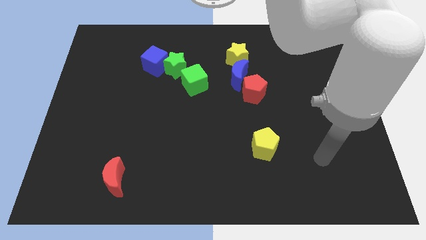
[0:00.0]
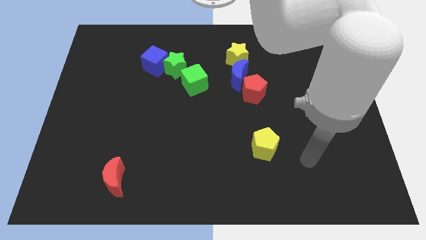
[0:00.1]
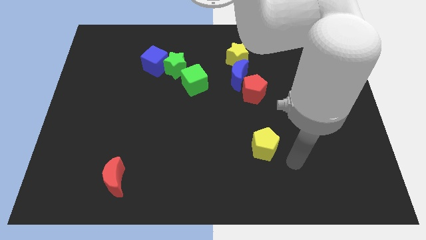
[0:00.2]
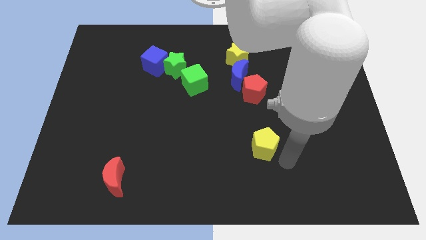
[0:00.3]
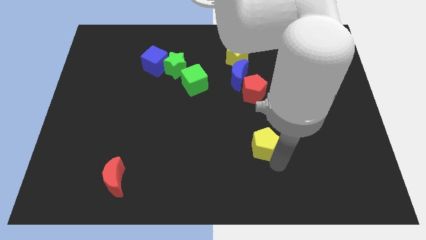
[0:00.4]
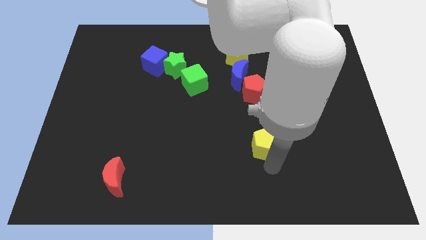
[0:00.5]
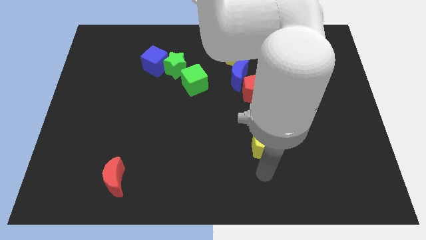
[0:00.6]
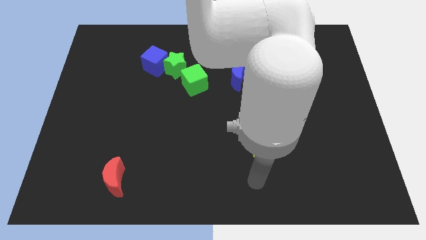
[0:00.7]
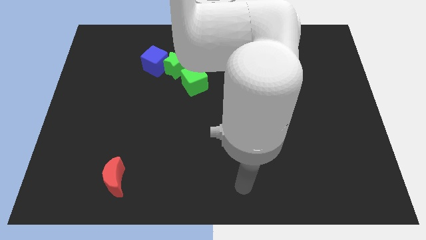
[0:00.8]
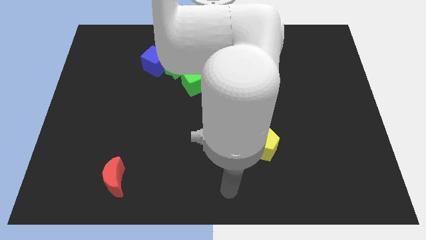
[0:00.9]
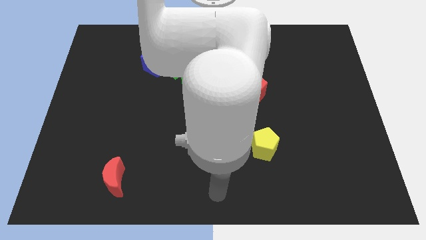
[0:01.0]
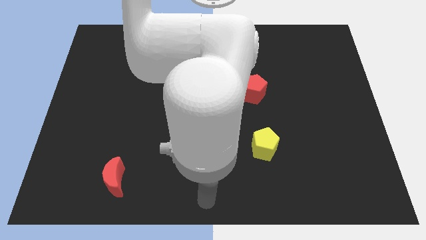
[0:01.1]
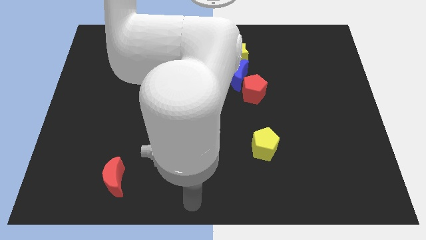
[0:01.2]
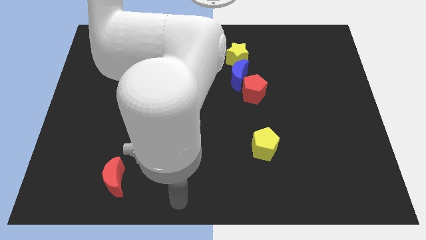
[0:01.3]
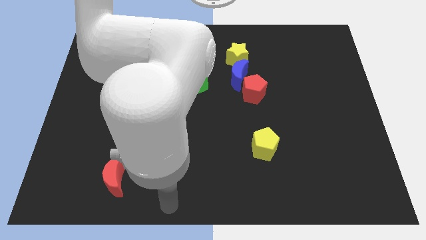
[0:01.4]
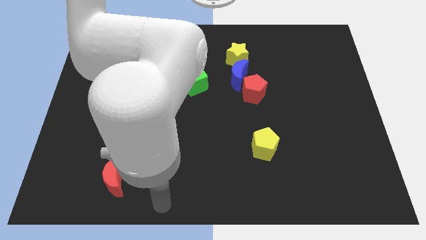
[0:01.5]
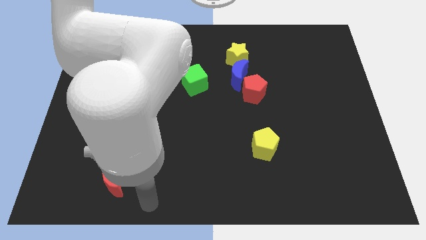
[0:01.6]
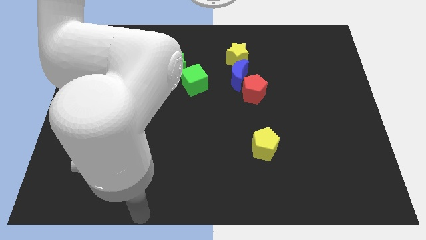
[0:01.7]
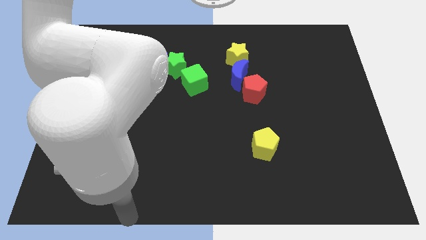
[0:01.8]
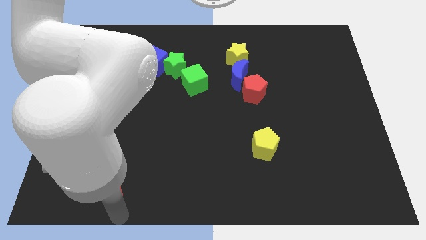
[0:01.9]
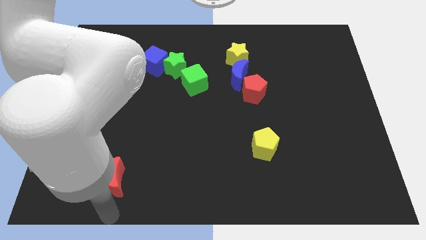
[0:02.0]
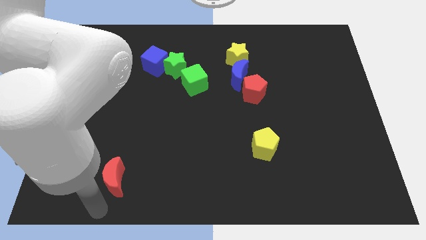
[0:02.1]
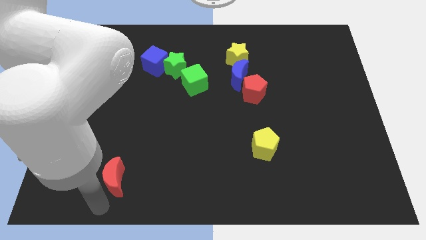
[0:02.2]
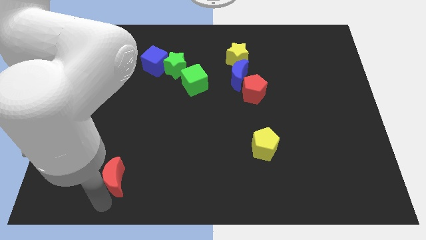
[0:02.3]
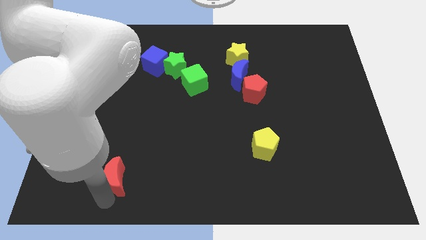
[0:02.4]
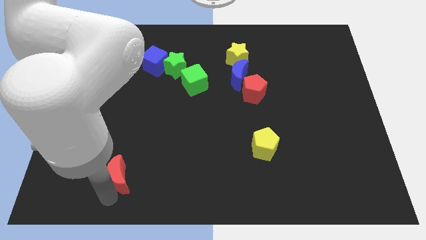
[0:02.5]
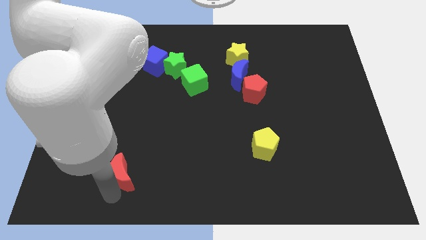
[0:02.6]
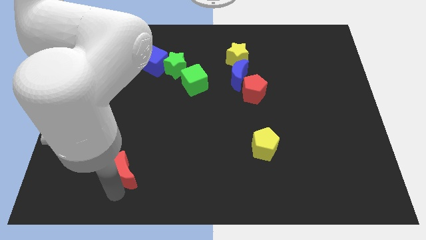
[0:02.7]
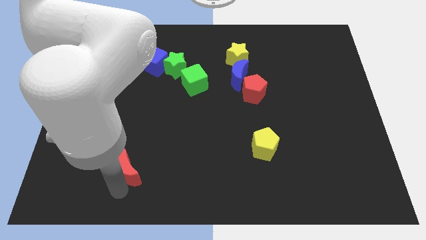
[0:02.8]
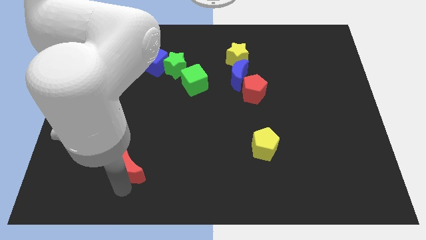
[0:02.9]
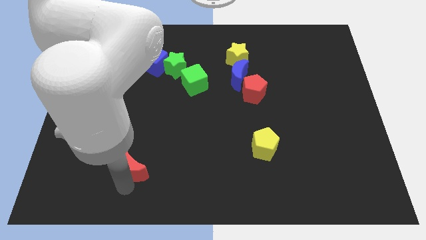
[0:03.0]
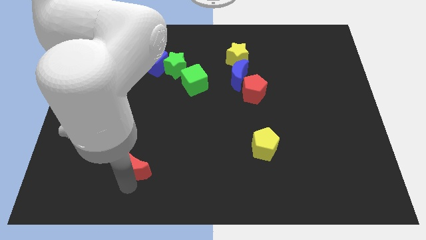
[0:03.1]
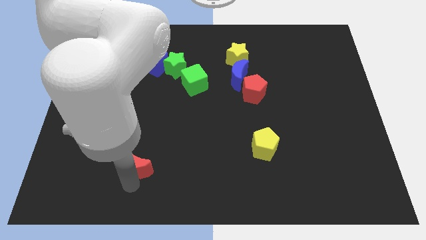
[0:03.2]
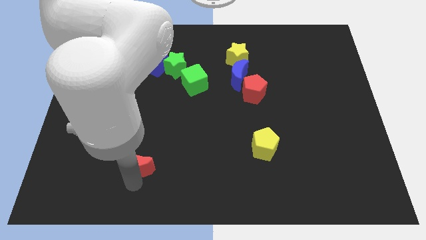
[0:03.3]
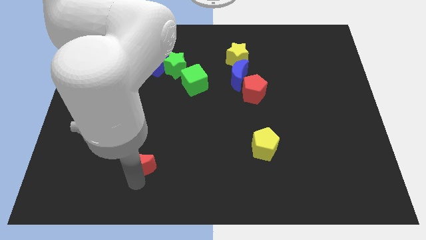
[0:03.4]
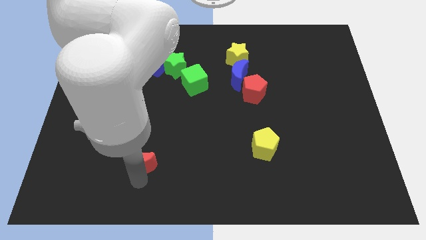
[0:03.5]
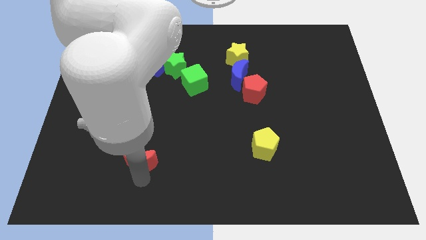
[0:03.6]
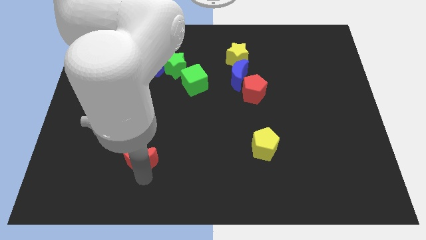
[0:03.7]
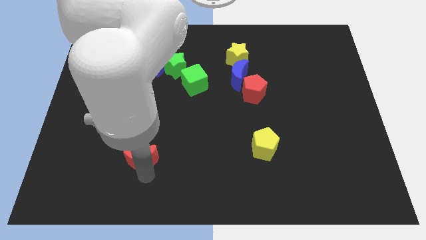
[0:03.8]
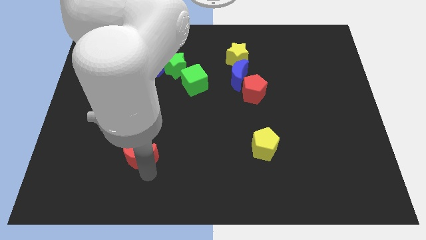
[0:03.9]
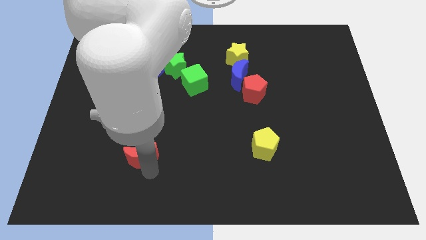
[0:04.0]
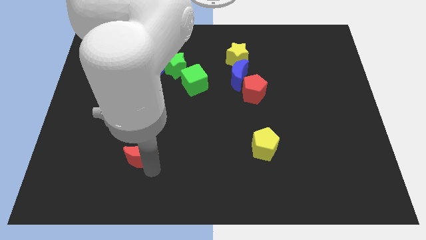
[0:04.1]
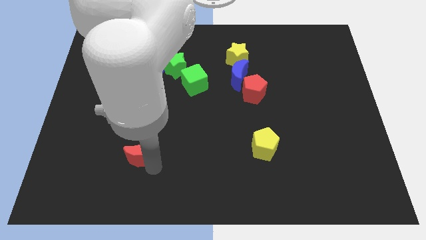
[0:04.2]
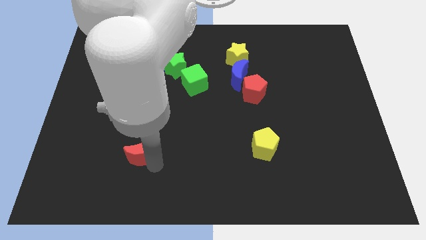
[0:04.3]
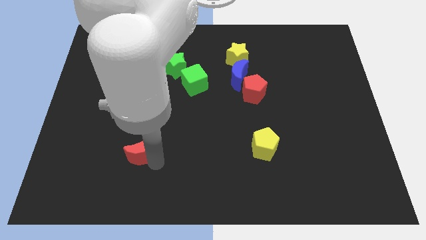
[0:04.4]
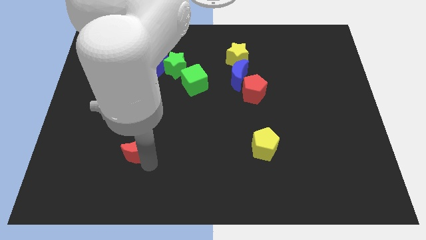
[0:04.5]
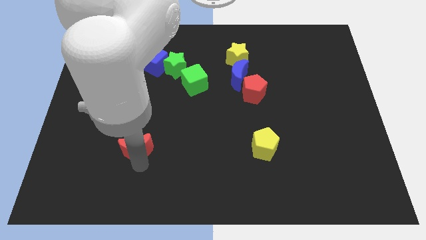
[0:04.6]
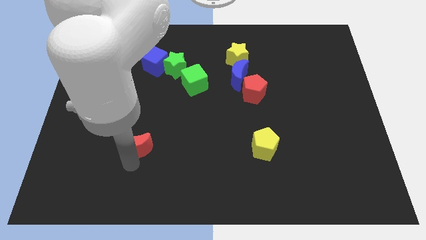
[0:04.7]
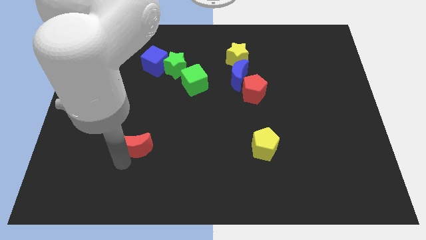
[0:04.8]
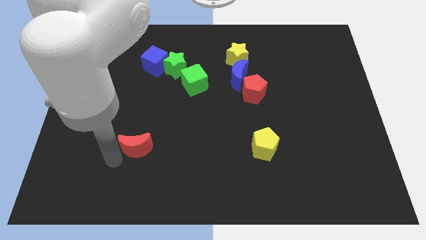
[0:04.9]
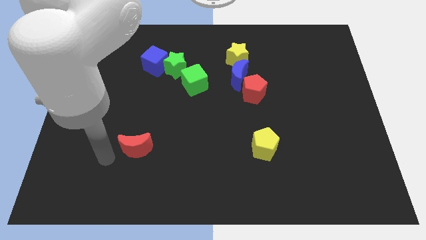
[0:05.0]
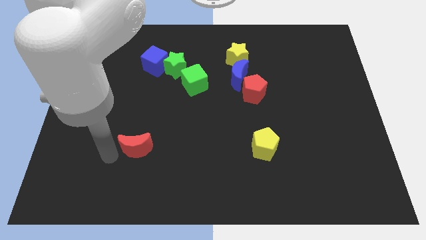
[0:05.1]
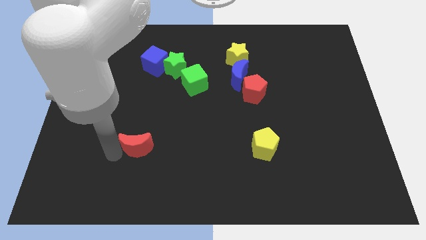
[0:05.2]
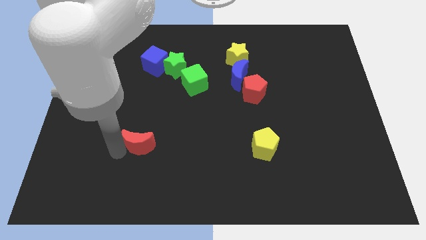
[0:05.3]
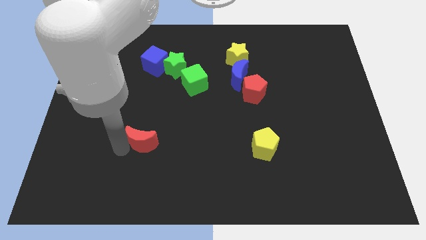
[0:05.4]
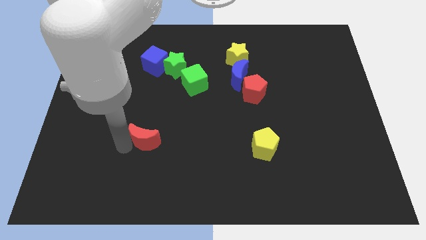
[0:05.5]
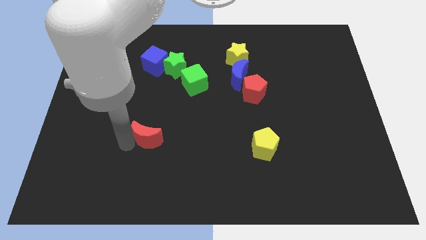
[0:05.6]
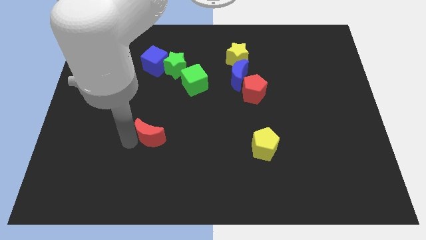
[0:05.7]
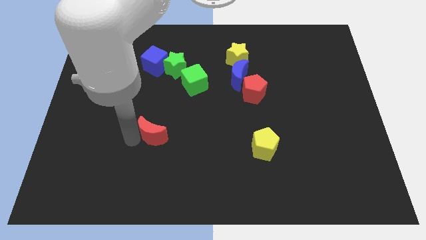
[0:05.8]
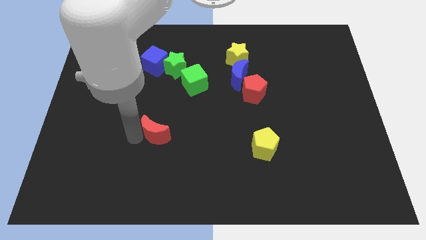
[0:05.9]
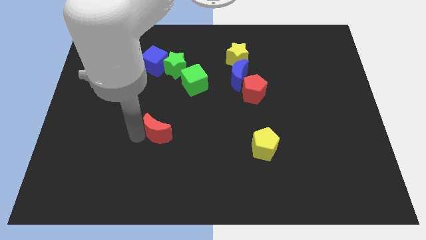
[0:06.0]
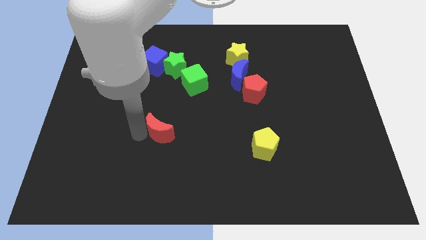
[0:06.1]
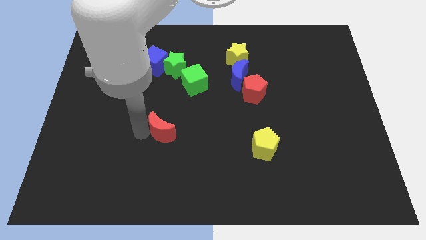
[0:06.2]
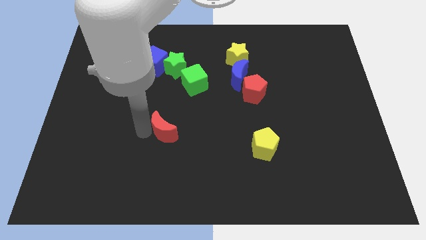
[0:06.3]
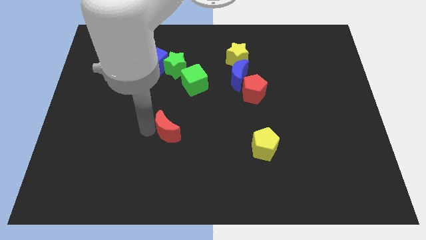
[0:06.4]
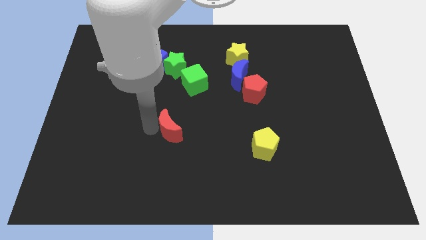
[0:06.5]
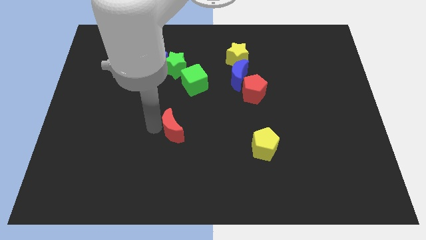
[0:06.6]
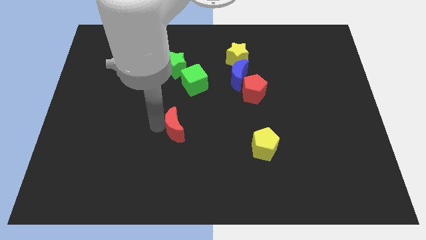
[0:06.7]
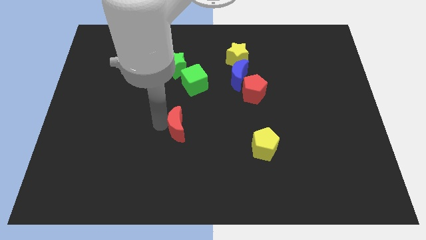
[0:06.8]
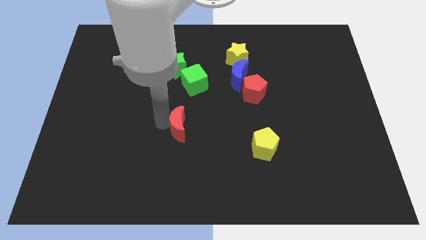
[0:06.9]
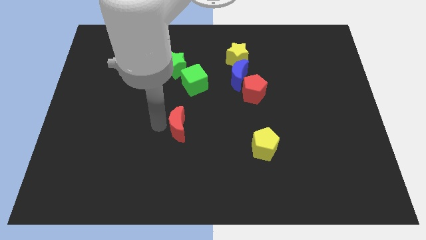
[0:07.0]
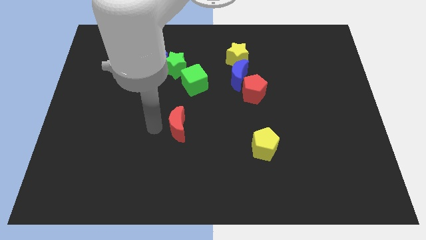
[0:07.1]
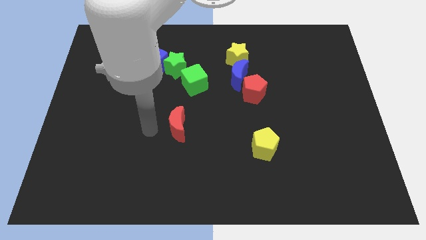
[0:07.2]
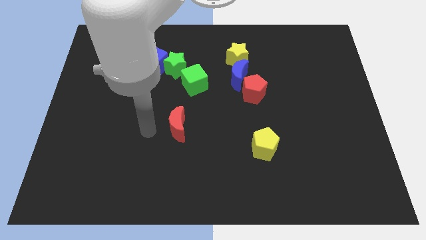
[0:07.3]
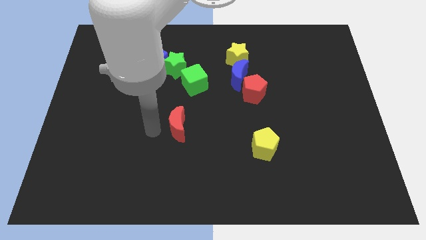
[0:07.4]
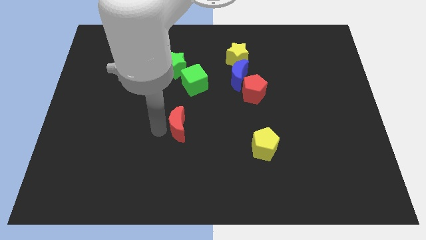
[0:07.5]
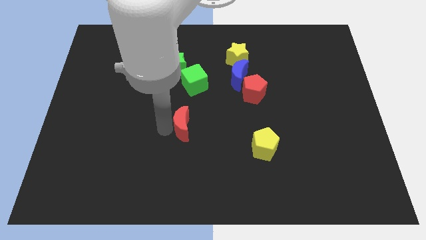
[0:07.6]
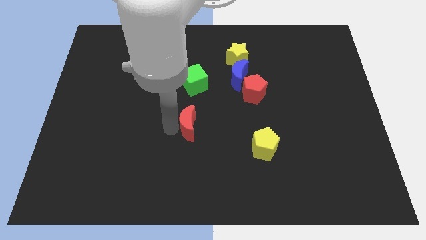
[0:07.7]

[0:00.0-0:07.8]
push the red moon up and to the right

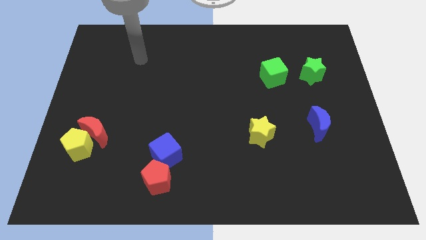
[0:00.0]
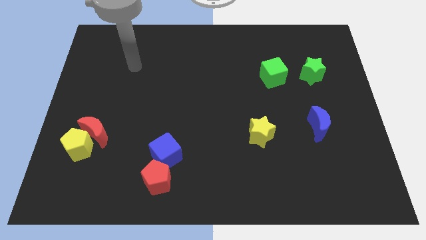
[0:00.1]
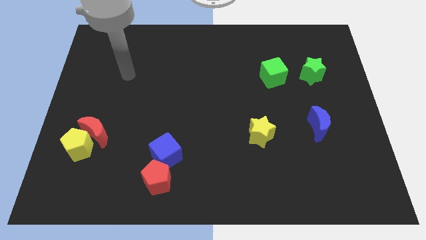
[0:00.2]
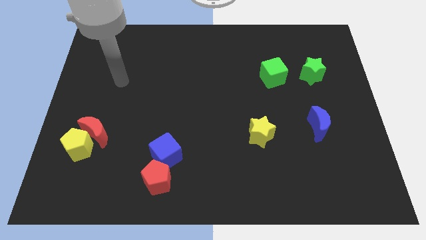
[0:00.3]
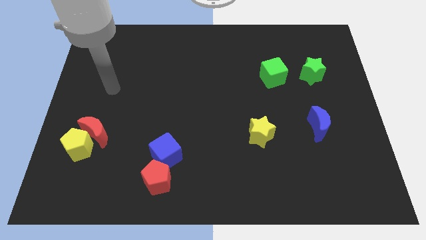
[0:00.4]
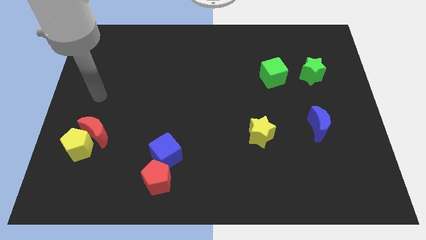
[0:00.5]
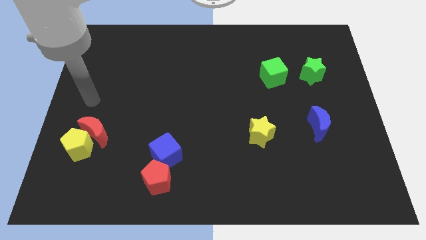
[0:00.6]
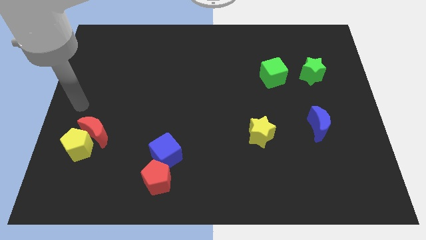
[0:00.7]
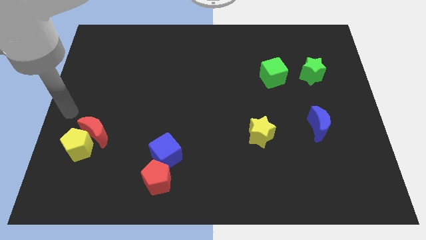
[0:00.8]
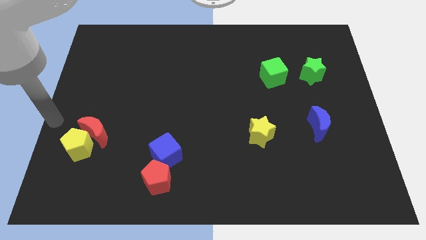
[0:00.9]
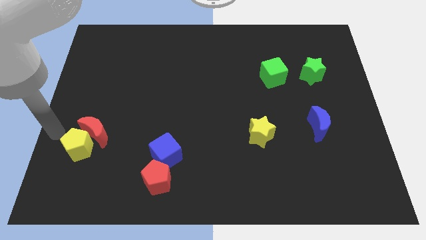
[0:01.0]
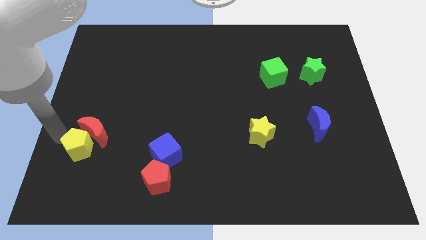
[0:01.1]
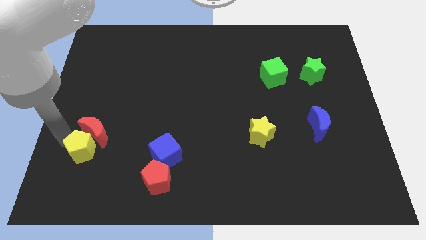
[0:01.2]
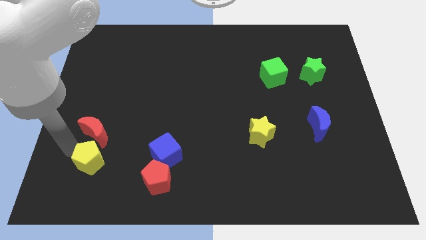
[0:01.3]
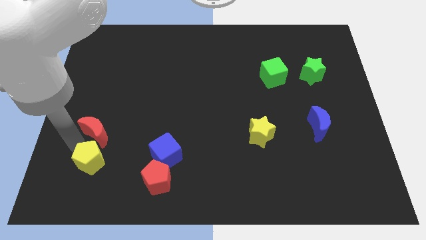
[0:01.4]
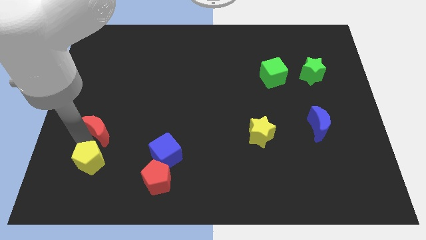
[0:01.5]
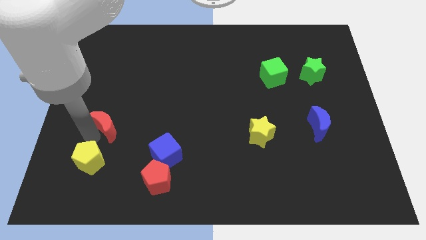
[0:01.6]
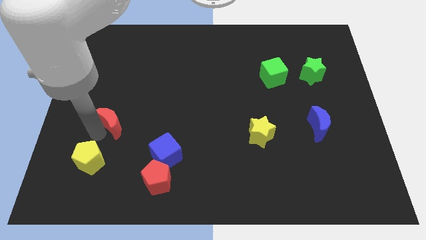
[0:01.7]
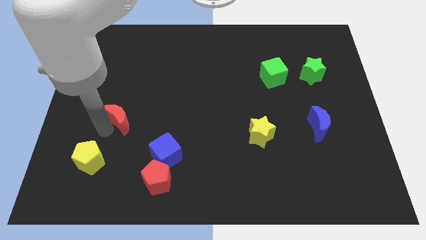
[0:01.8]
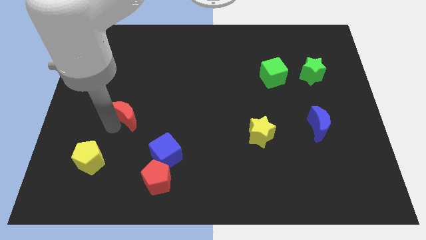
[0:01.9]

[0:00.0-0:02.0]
slightly push the red moon diagonally upwards and right
